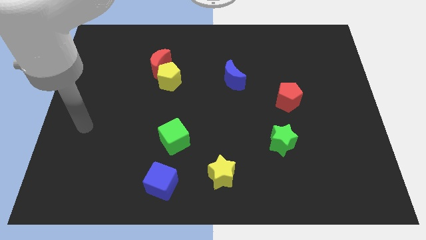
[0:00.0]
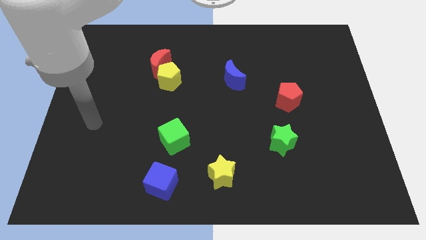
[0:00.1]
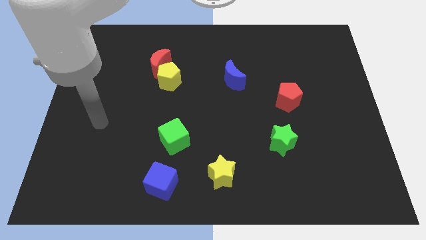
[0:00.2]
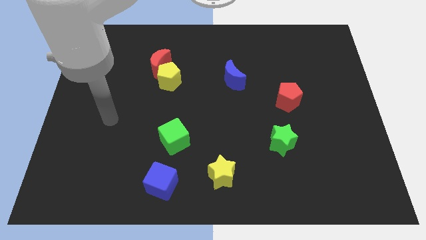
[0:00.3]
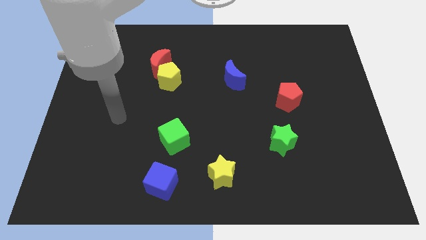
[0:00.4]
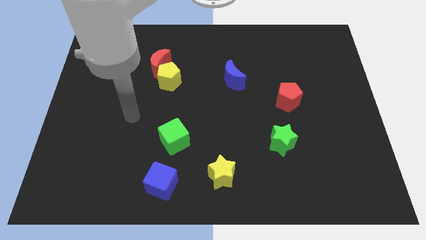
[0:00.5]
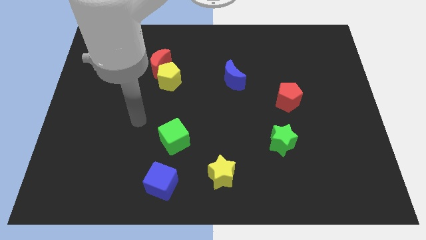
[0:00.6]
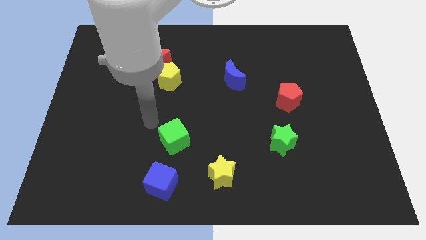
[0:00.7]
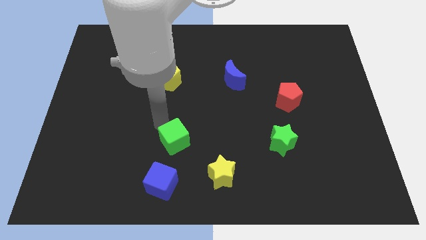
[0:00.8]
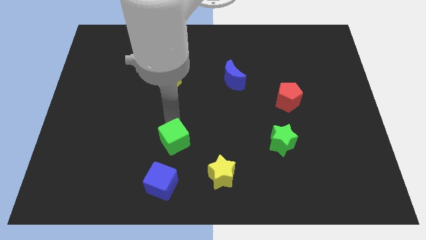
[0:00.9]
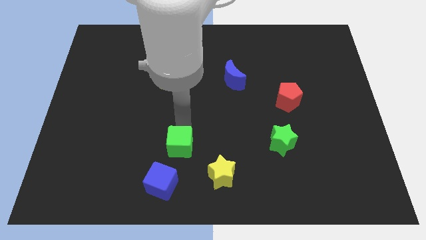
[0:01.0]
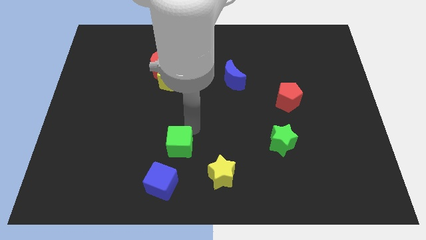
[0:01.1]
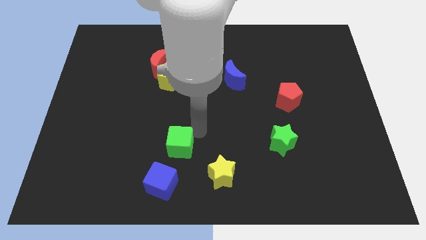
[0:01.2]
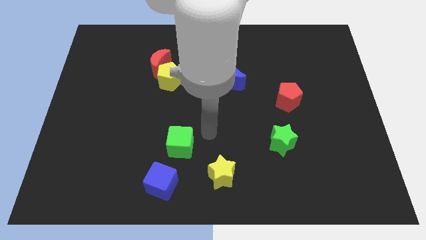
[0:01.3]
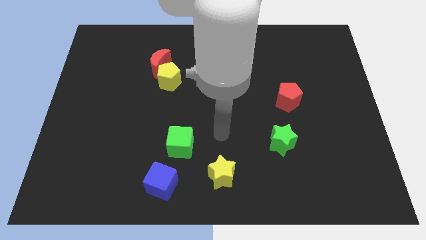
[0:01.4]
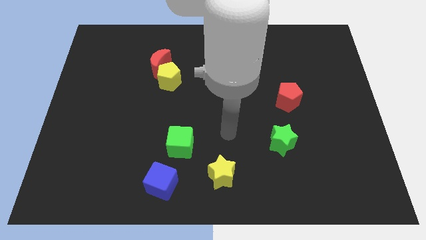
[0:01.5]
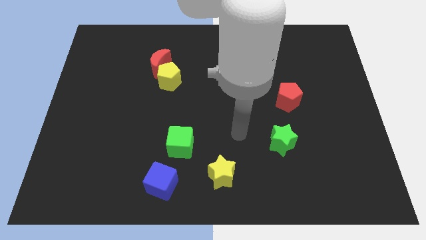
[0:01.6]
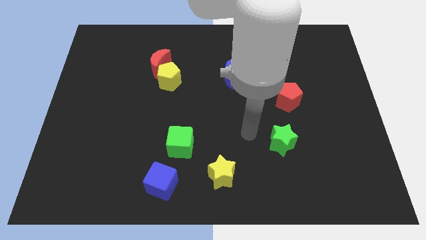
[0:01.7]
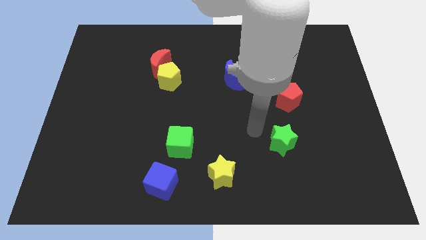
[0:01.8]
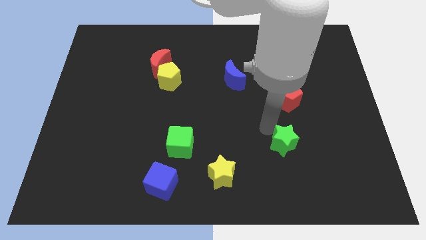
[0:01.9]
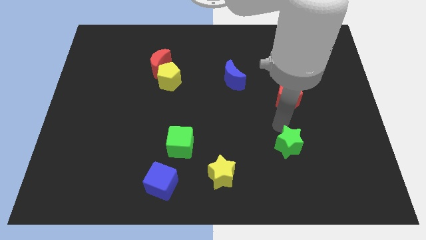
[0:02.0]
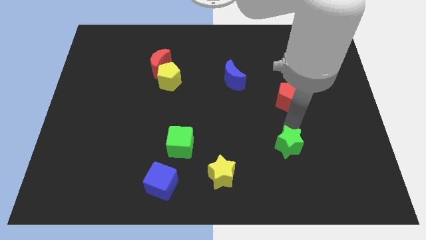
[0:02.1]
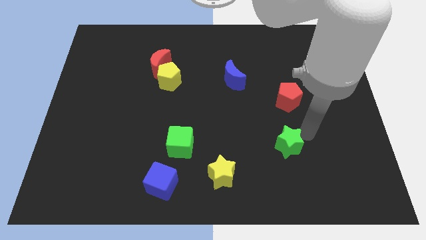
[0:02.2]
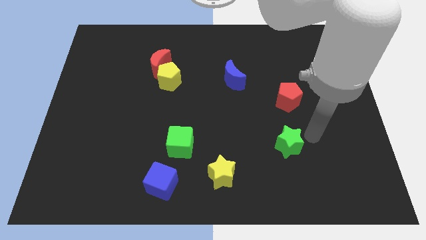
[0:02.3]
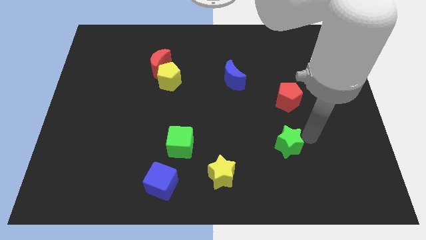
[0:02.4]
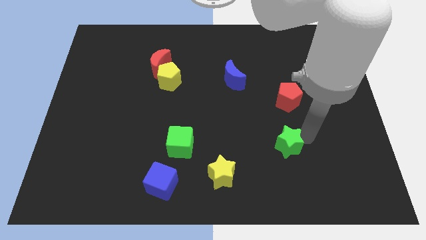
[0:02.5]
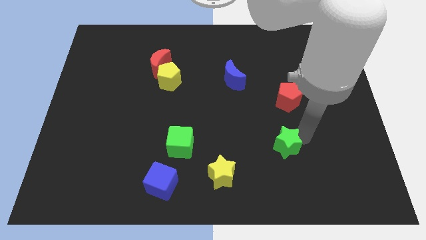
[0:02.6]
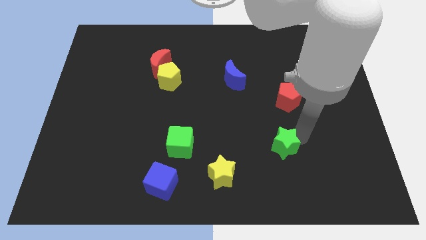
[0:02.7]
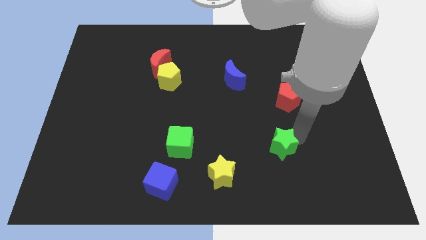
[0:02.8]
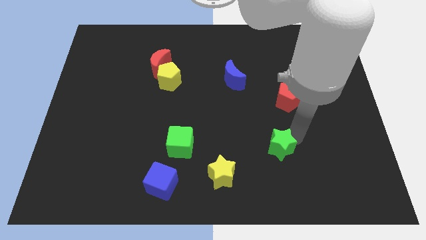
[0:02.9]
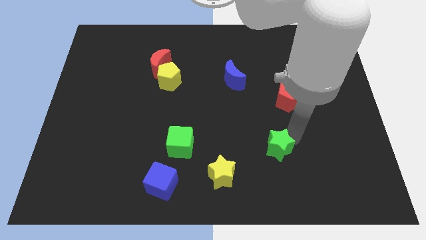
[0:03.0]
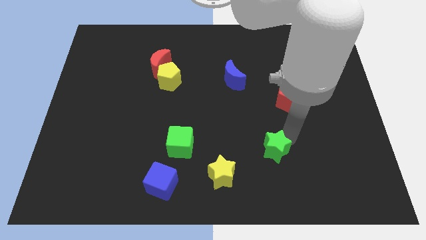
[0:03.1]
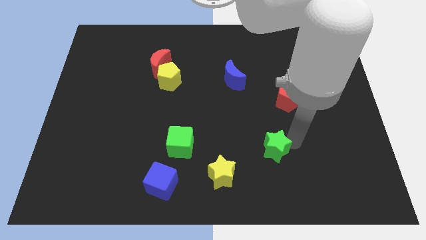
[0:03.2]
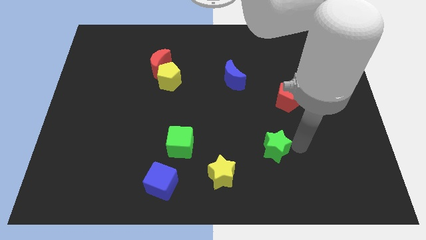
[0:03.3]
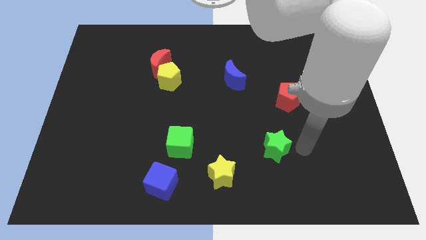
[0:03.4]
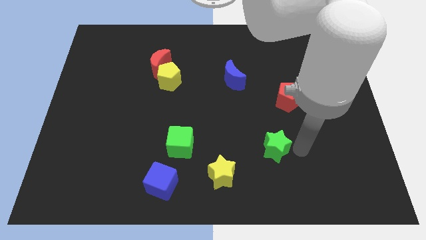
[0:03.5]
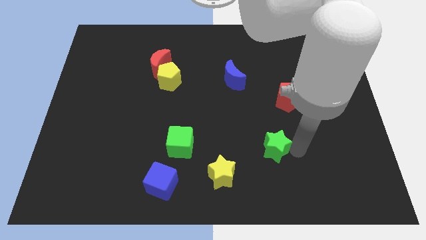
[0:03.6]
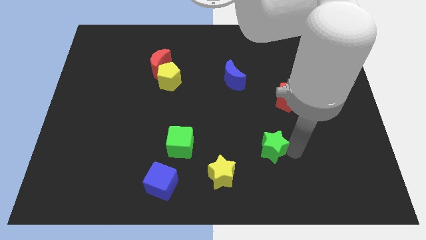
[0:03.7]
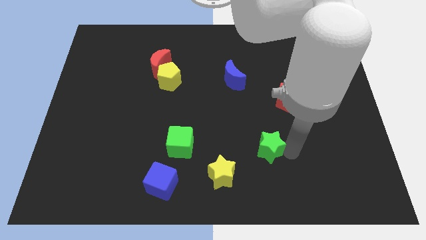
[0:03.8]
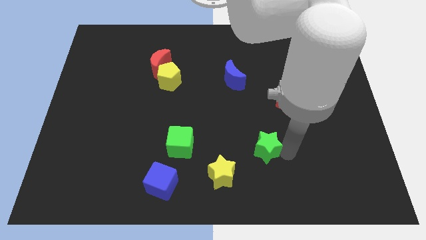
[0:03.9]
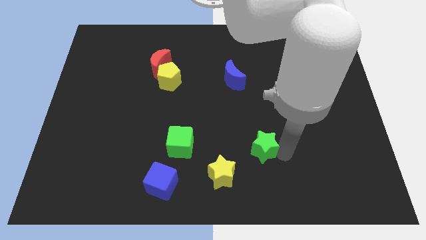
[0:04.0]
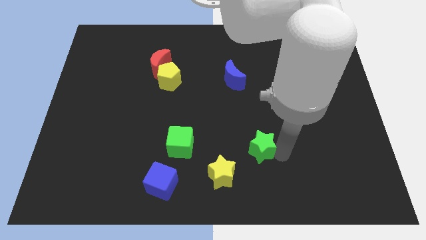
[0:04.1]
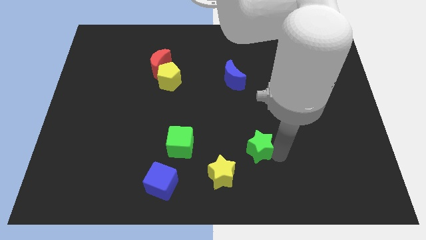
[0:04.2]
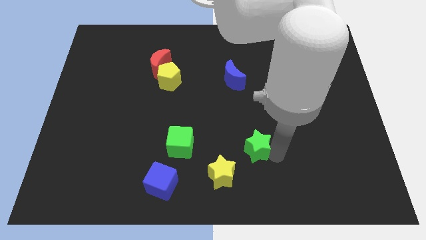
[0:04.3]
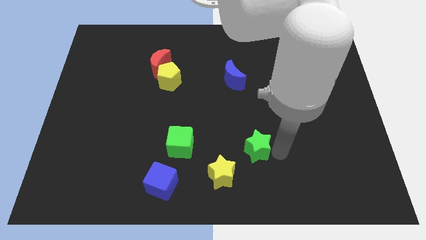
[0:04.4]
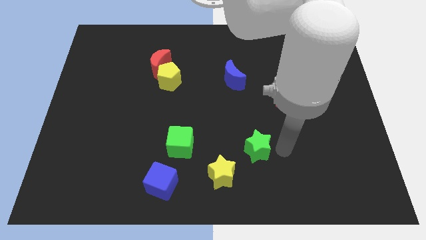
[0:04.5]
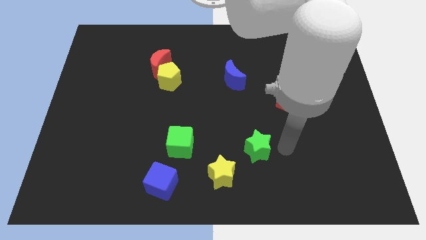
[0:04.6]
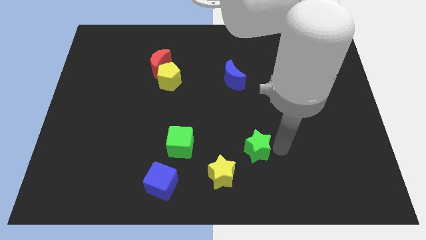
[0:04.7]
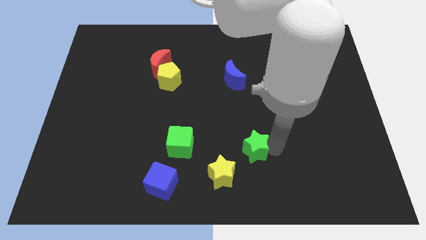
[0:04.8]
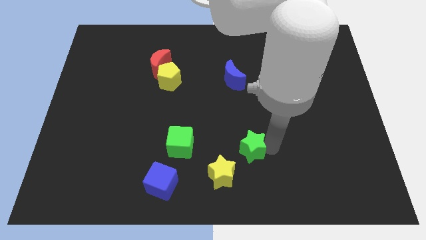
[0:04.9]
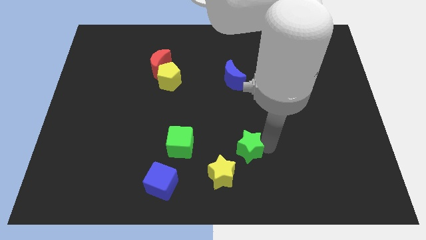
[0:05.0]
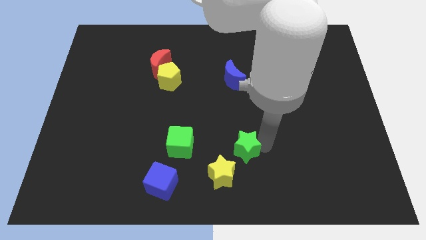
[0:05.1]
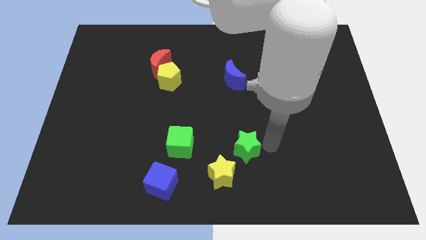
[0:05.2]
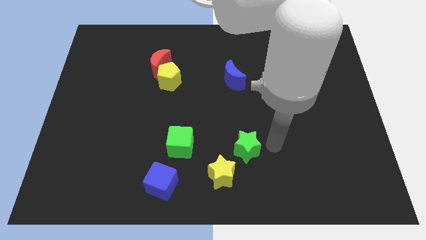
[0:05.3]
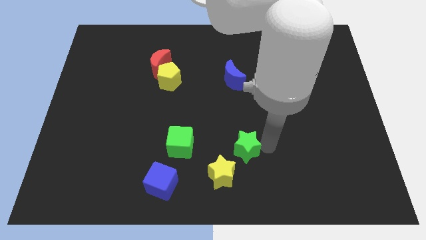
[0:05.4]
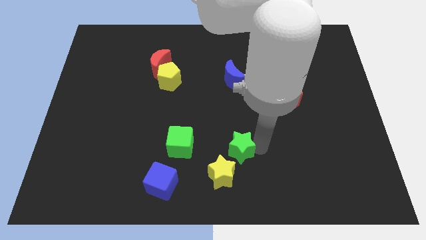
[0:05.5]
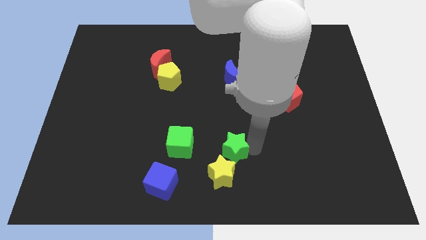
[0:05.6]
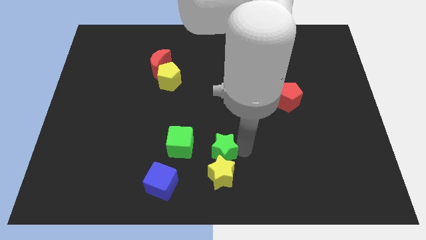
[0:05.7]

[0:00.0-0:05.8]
push the green star to the top left side of the yellow star

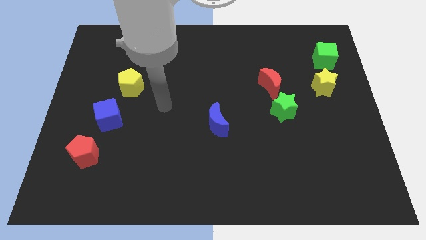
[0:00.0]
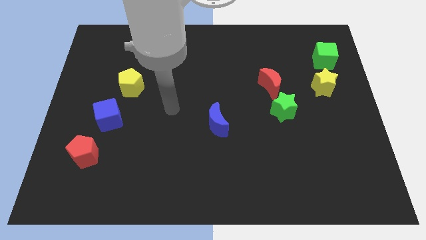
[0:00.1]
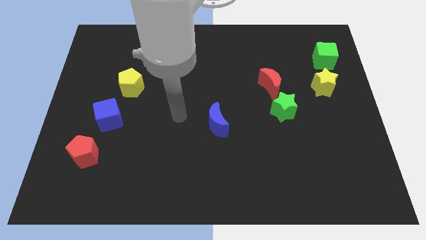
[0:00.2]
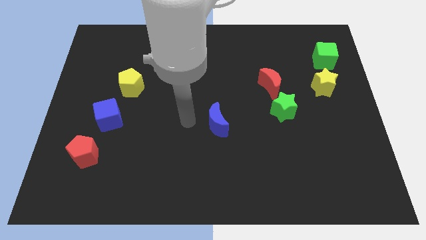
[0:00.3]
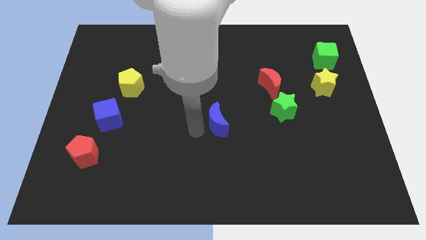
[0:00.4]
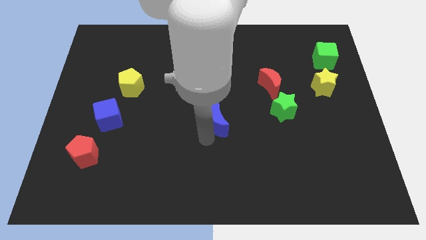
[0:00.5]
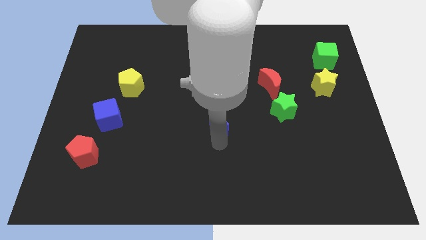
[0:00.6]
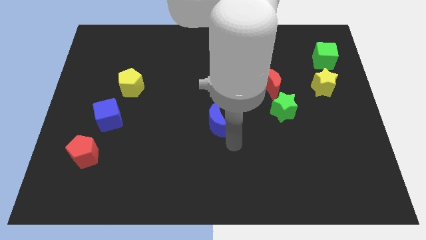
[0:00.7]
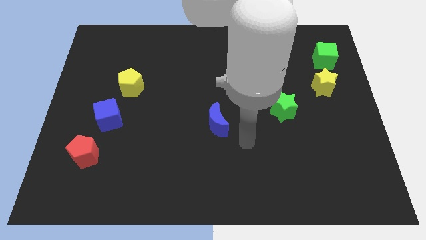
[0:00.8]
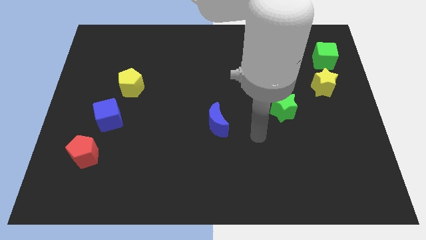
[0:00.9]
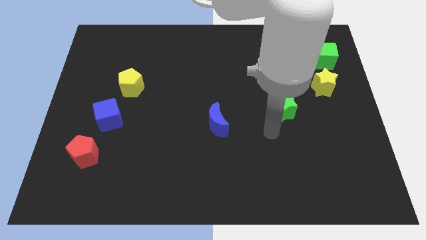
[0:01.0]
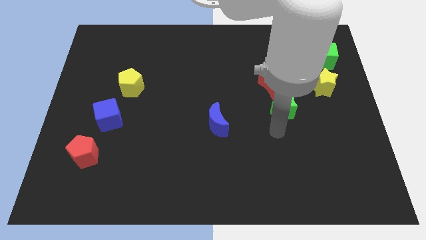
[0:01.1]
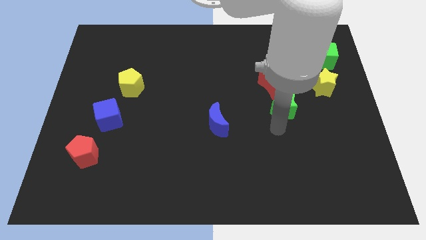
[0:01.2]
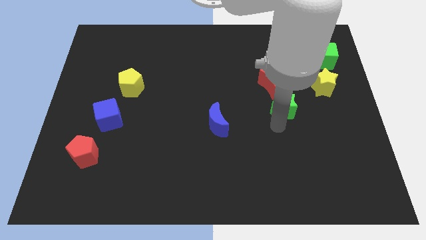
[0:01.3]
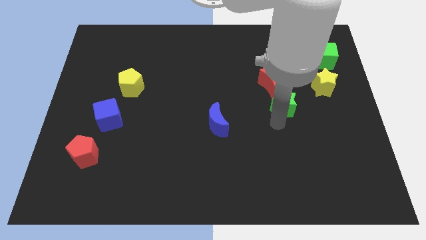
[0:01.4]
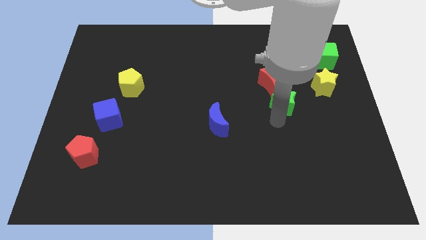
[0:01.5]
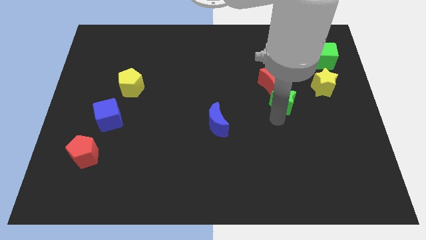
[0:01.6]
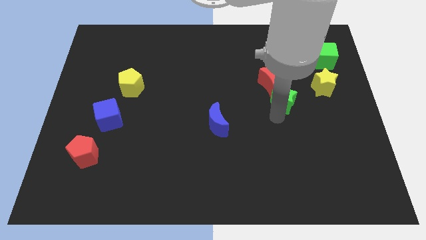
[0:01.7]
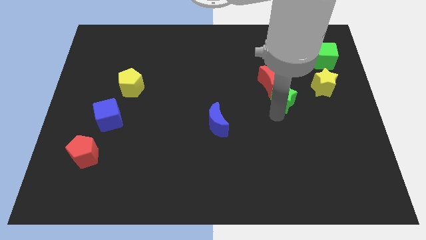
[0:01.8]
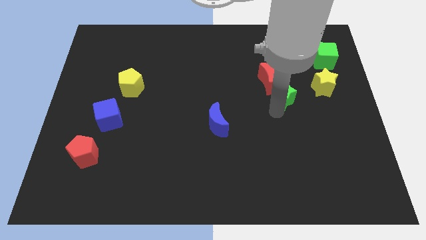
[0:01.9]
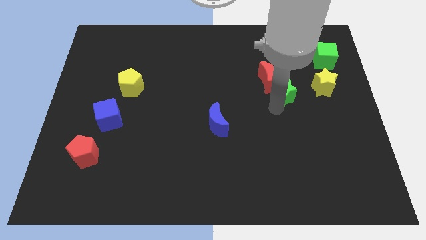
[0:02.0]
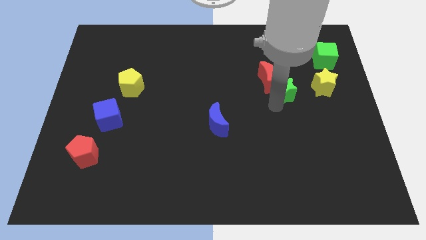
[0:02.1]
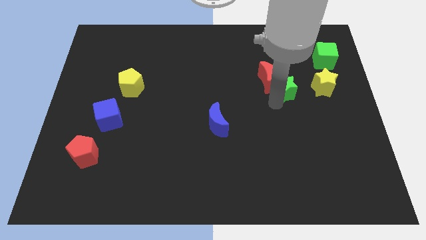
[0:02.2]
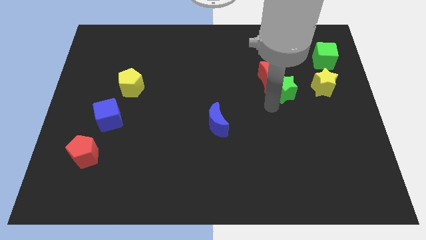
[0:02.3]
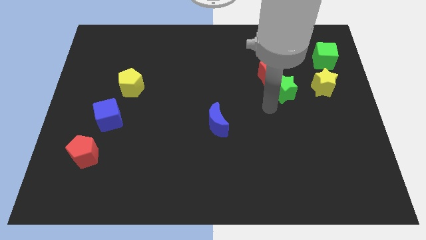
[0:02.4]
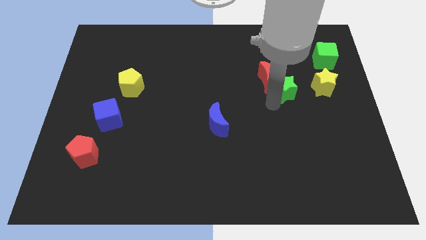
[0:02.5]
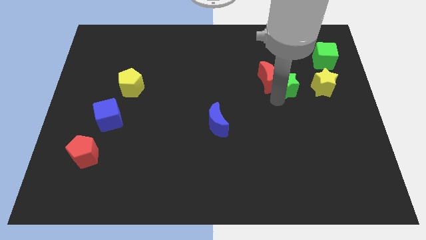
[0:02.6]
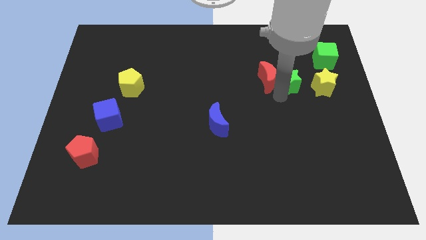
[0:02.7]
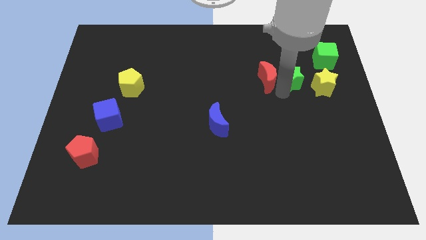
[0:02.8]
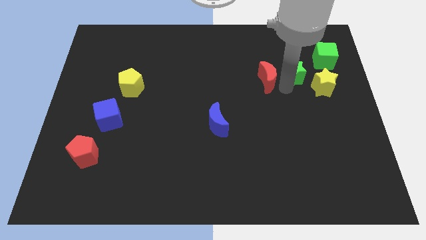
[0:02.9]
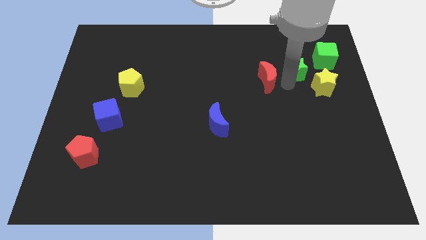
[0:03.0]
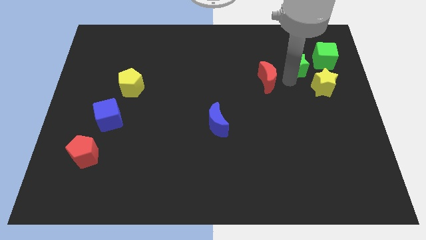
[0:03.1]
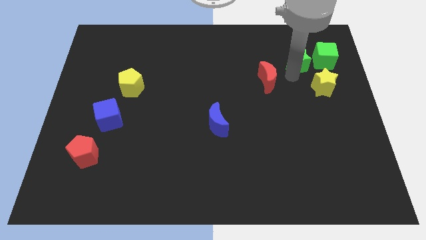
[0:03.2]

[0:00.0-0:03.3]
move the green star to the top of the yellow star
